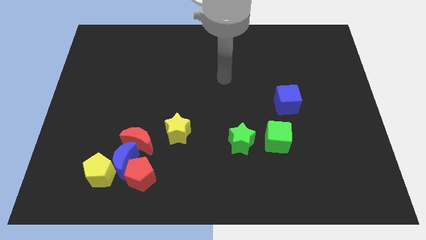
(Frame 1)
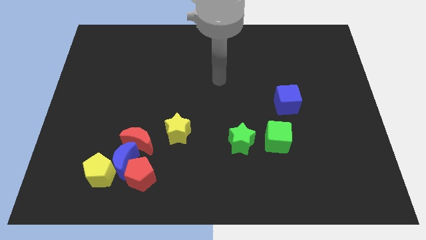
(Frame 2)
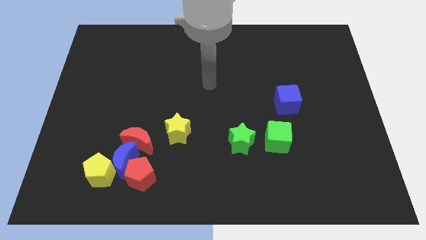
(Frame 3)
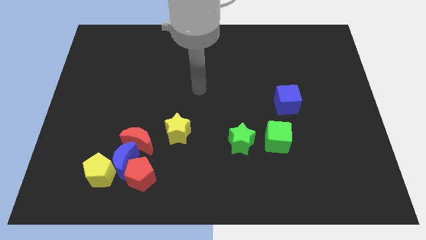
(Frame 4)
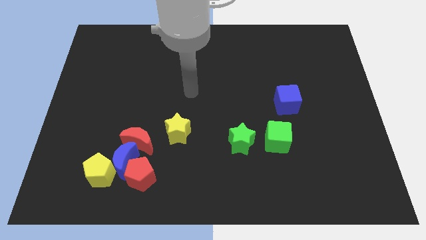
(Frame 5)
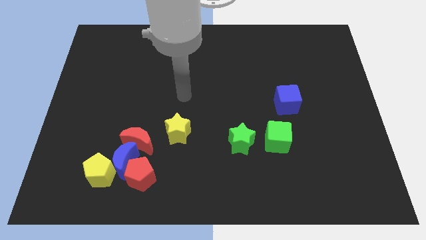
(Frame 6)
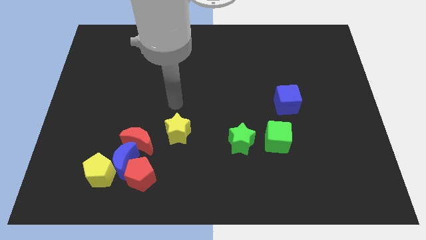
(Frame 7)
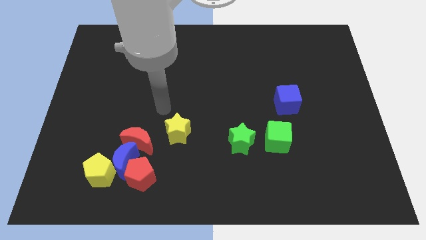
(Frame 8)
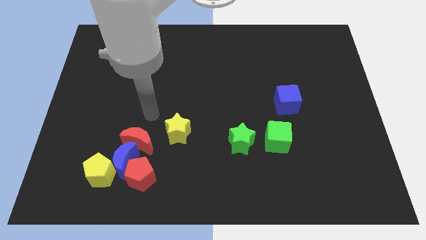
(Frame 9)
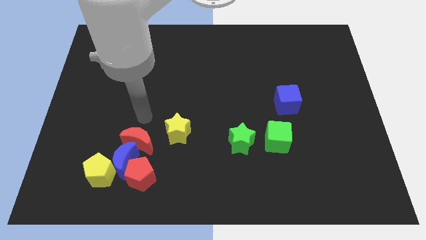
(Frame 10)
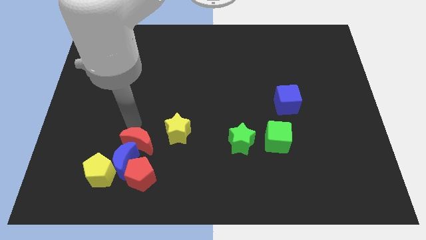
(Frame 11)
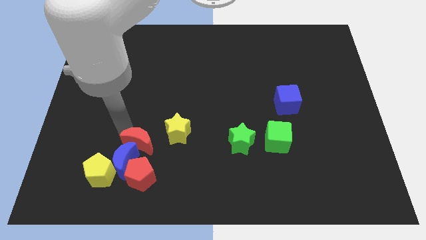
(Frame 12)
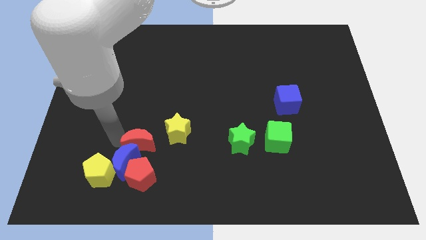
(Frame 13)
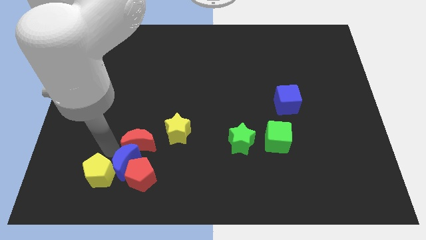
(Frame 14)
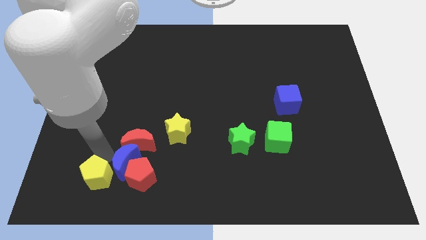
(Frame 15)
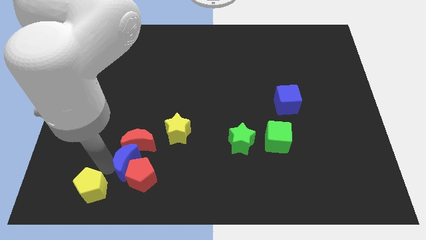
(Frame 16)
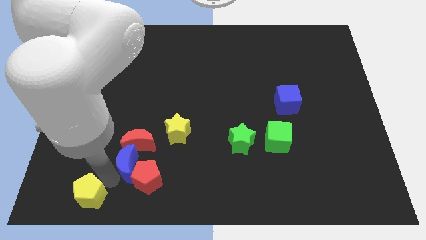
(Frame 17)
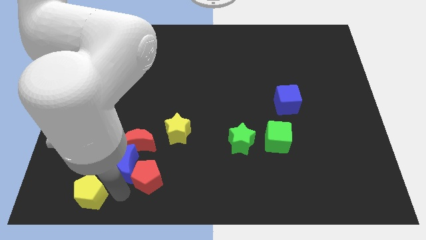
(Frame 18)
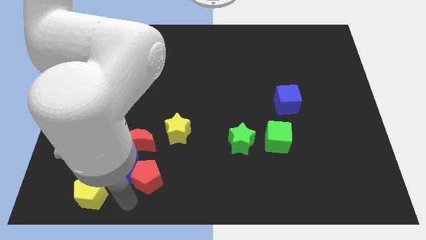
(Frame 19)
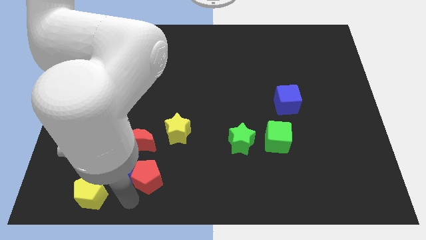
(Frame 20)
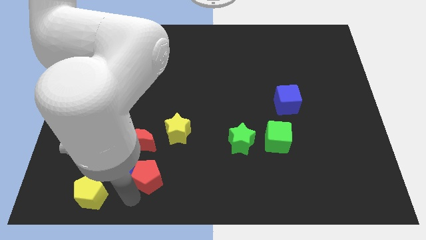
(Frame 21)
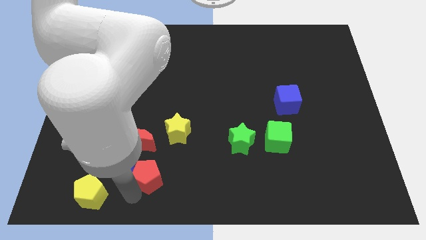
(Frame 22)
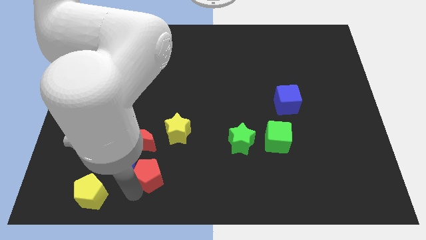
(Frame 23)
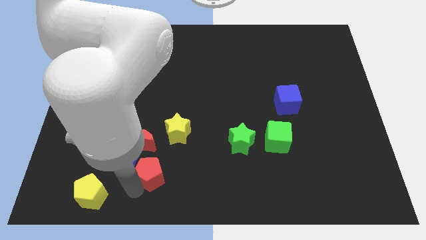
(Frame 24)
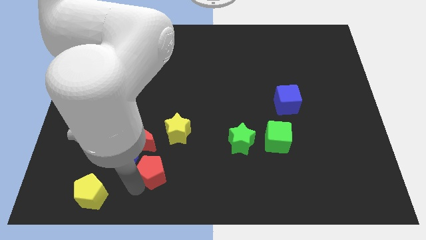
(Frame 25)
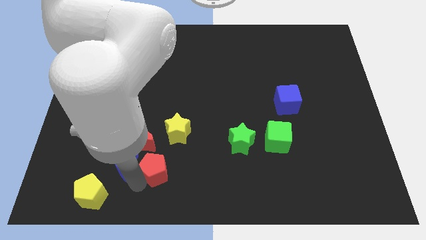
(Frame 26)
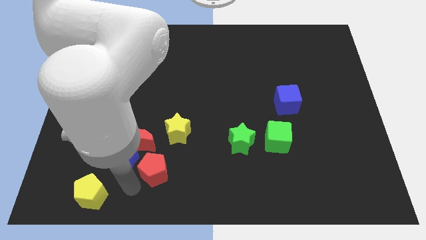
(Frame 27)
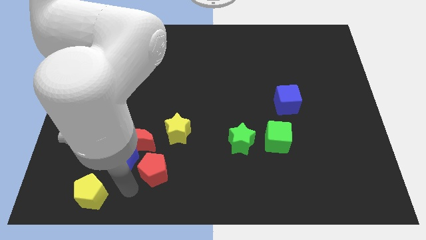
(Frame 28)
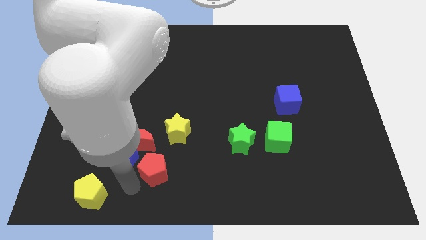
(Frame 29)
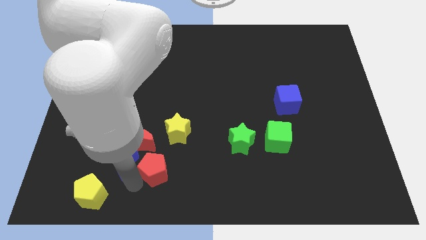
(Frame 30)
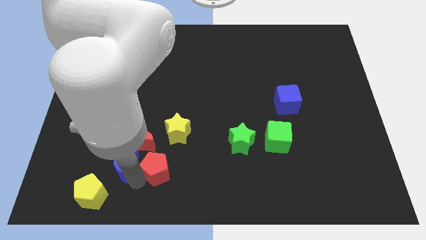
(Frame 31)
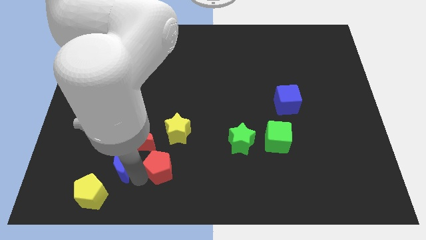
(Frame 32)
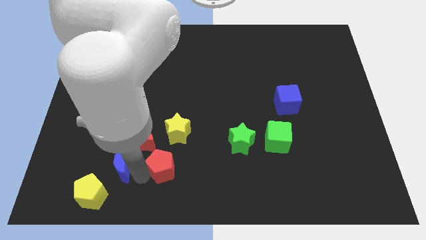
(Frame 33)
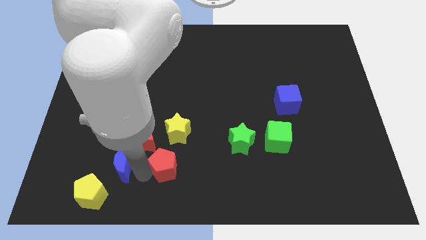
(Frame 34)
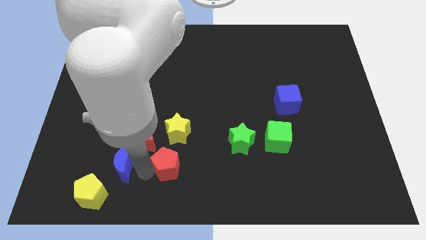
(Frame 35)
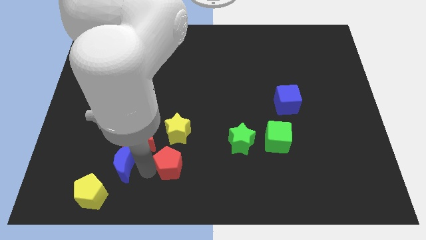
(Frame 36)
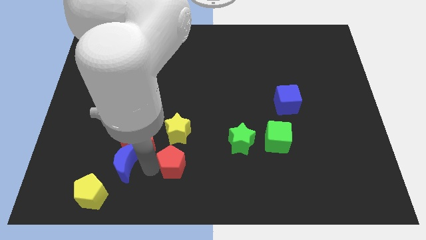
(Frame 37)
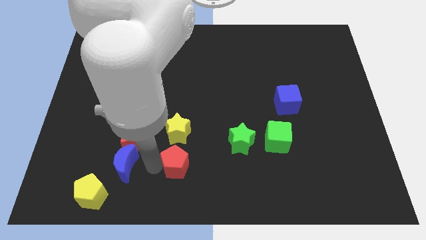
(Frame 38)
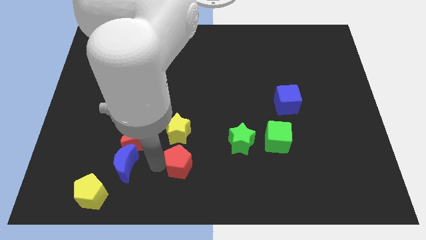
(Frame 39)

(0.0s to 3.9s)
move the red pentagon slightly upwards and then right

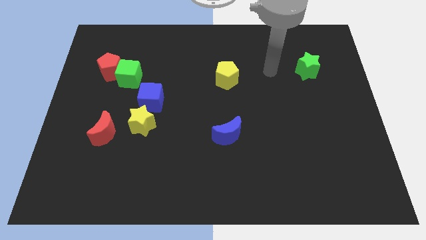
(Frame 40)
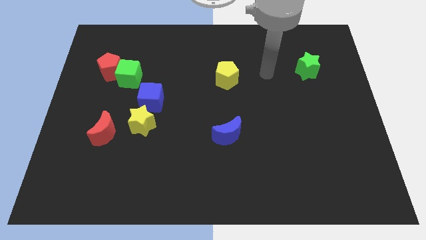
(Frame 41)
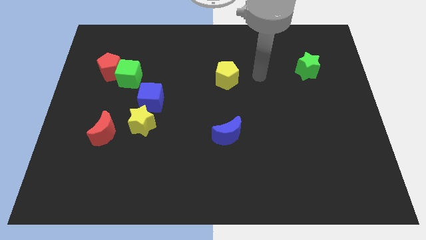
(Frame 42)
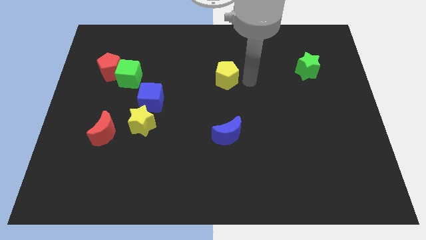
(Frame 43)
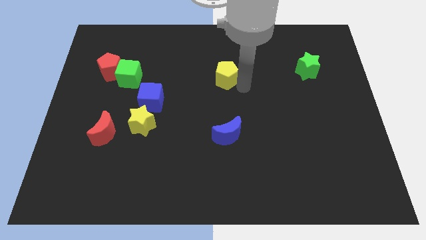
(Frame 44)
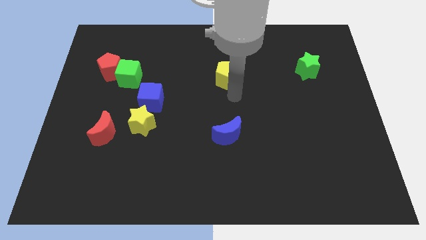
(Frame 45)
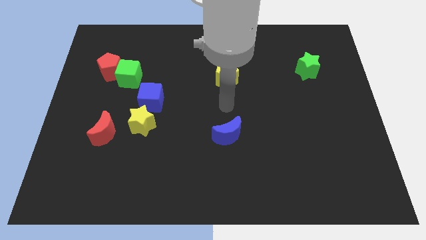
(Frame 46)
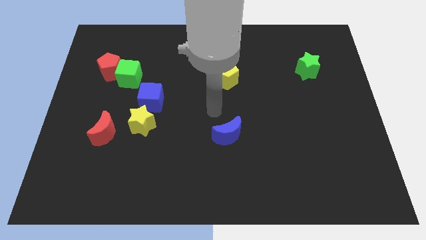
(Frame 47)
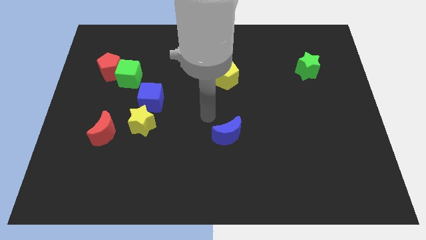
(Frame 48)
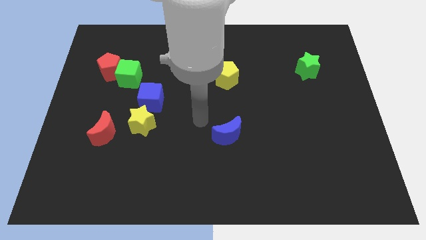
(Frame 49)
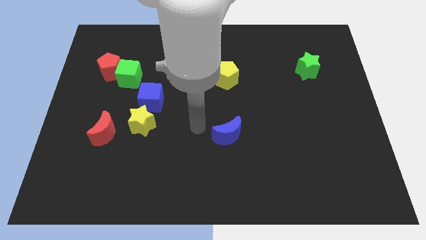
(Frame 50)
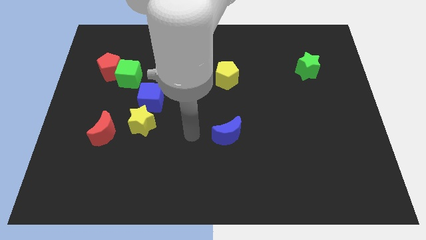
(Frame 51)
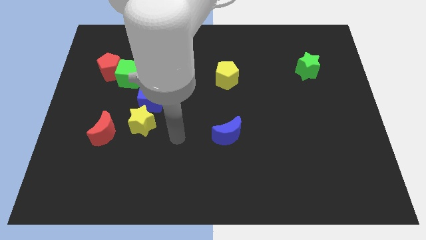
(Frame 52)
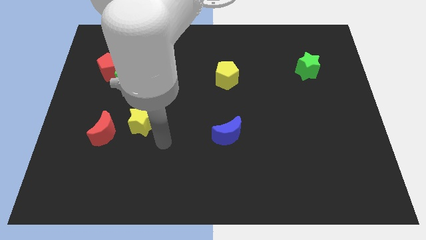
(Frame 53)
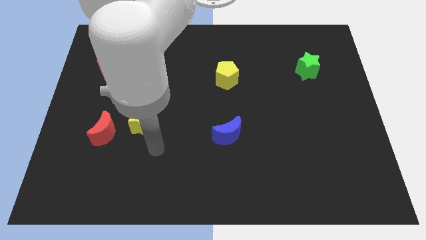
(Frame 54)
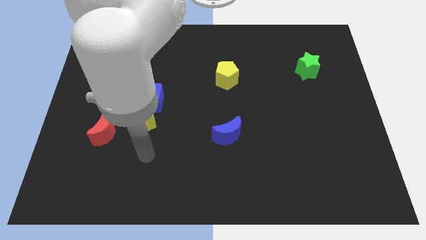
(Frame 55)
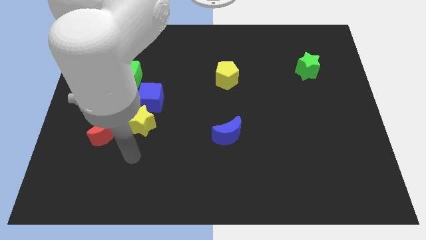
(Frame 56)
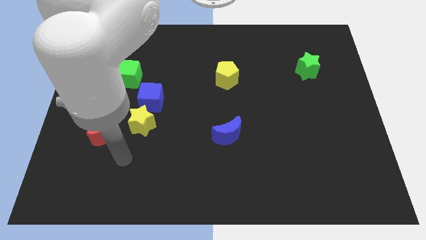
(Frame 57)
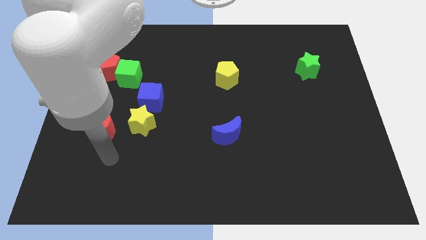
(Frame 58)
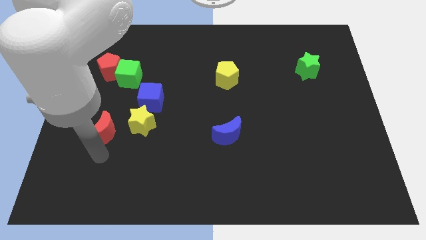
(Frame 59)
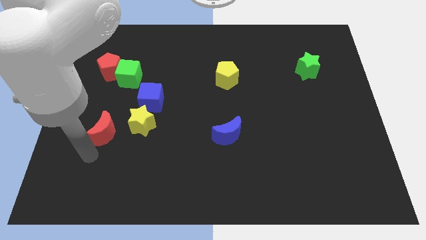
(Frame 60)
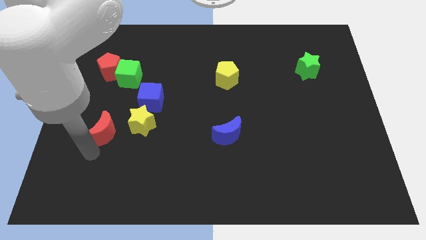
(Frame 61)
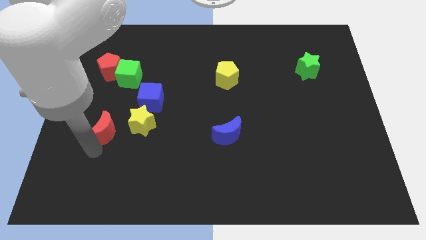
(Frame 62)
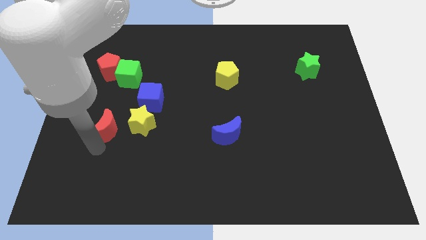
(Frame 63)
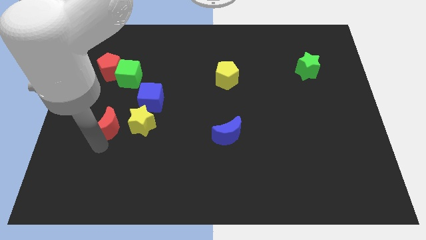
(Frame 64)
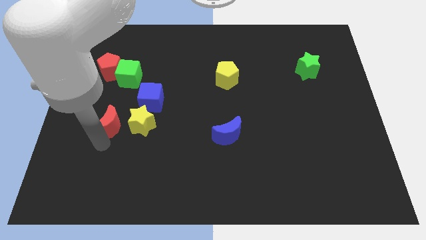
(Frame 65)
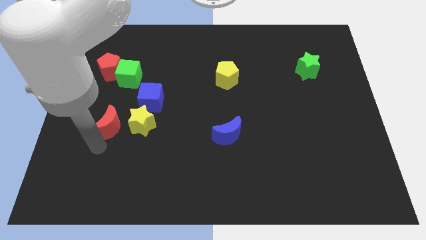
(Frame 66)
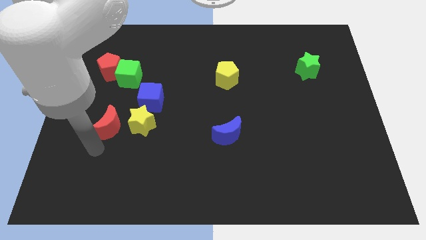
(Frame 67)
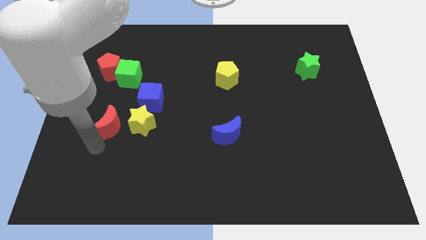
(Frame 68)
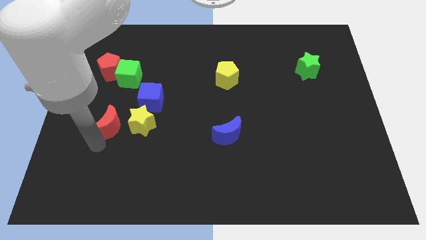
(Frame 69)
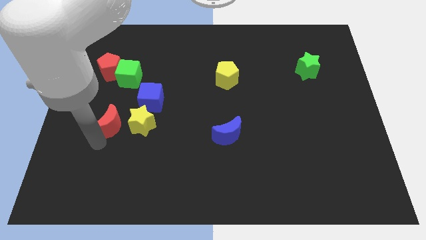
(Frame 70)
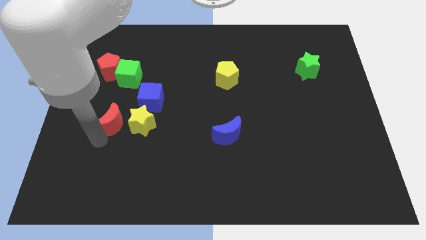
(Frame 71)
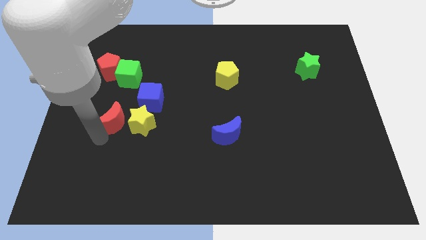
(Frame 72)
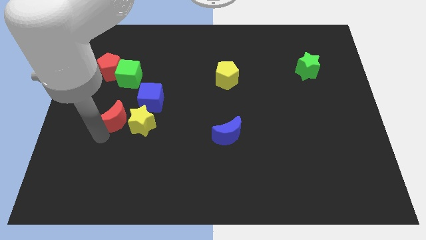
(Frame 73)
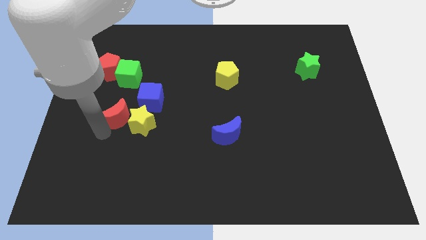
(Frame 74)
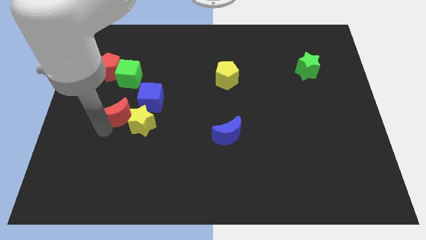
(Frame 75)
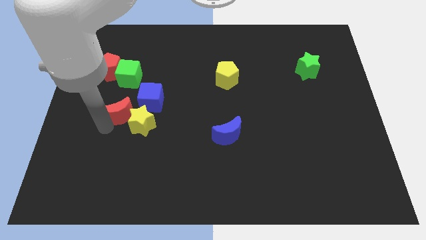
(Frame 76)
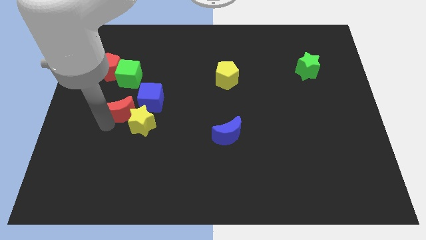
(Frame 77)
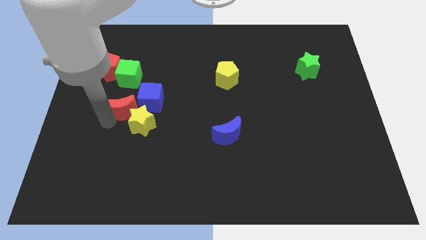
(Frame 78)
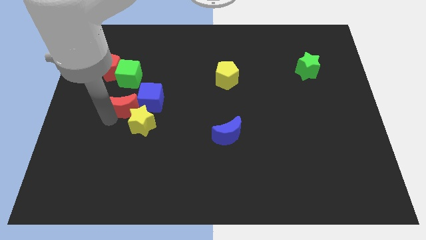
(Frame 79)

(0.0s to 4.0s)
push the red moon up and to the right diagonally a little

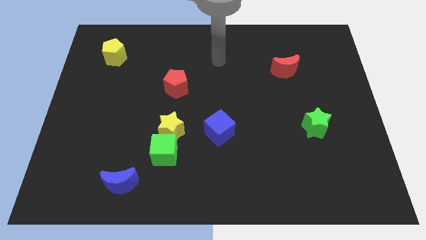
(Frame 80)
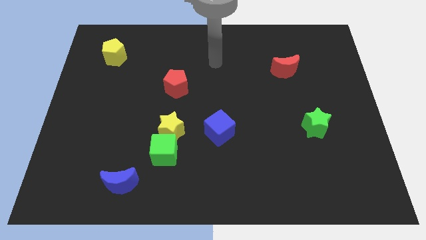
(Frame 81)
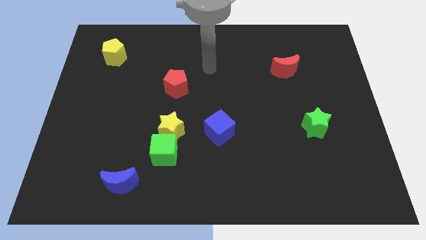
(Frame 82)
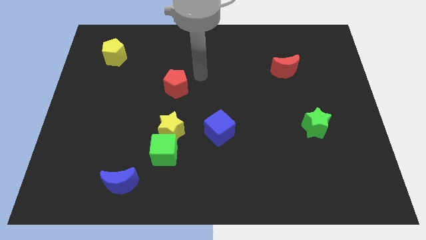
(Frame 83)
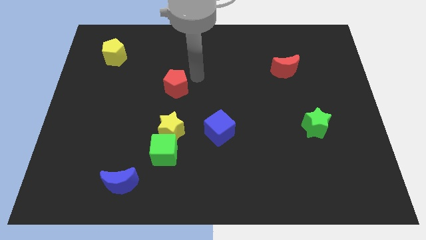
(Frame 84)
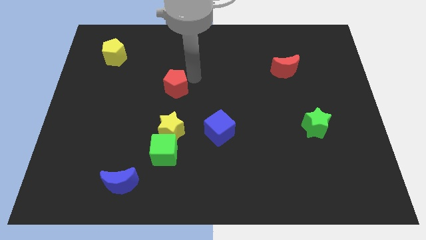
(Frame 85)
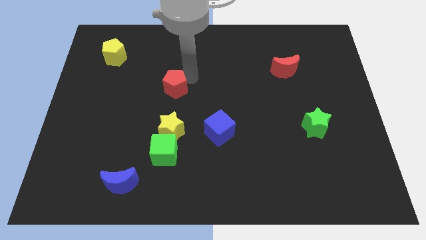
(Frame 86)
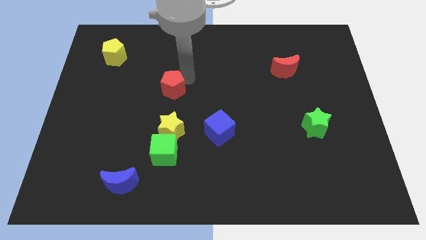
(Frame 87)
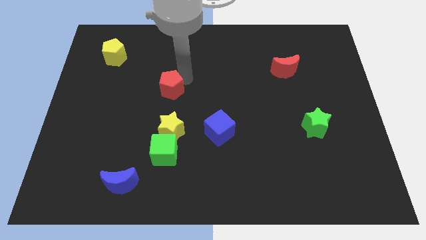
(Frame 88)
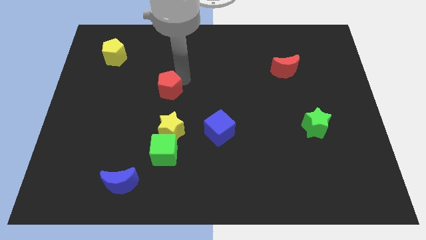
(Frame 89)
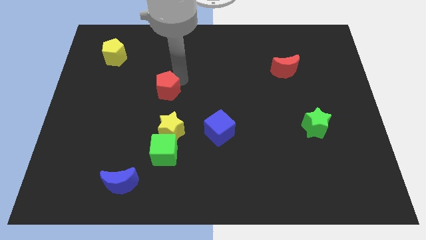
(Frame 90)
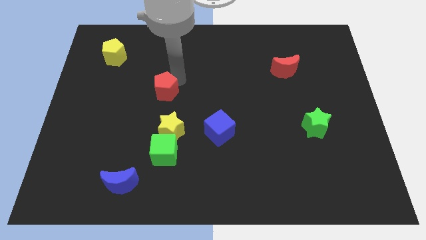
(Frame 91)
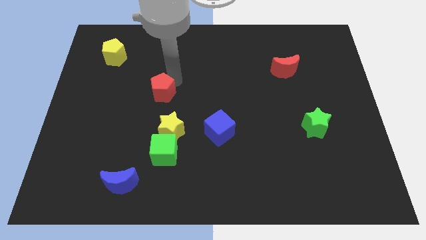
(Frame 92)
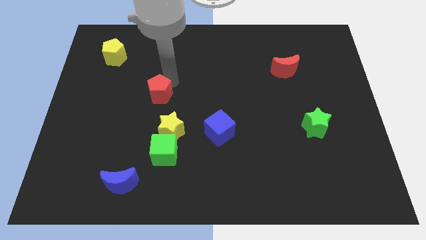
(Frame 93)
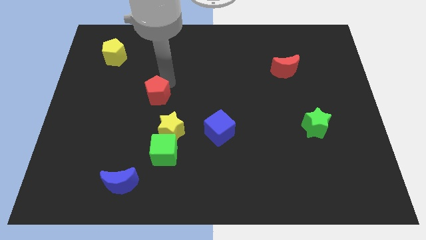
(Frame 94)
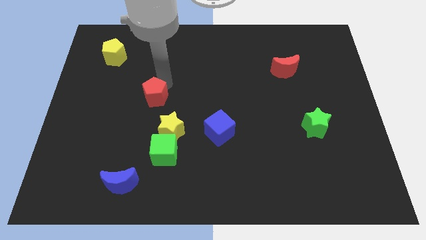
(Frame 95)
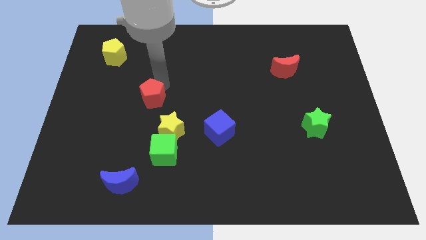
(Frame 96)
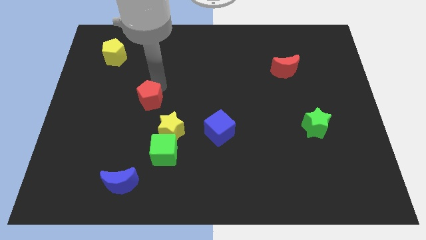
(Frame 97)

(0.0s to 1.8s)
push the red pentagon down and to the left a little
